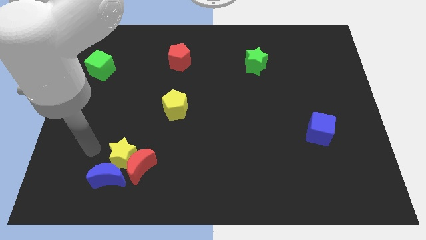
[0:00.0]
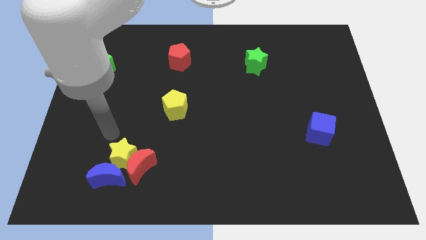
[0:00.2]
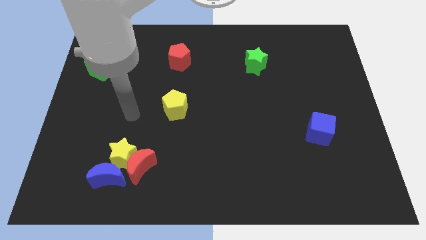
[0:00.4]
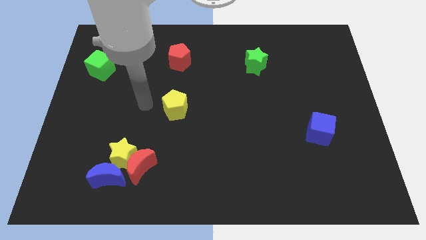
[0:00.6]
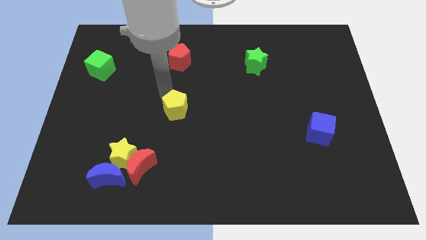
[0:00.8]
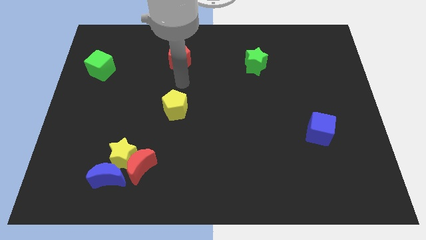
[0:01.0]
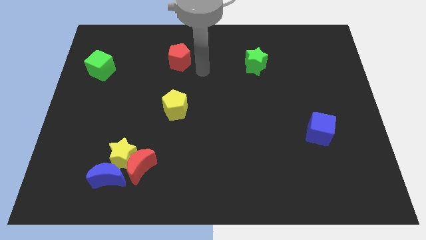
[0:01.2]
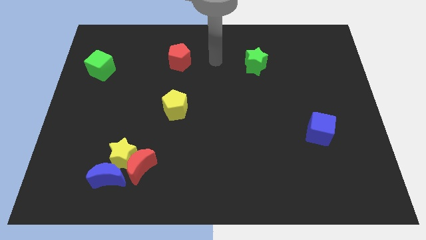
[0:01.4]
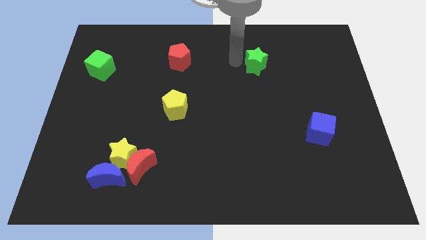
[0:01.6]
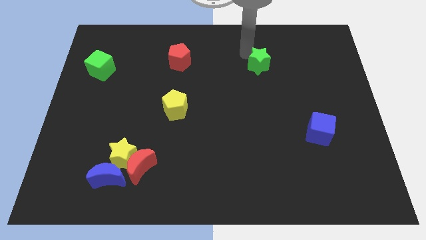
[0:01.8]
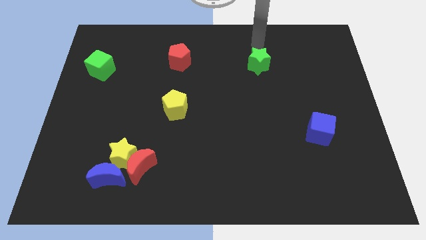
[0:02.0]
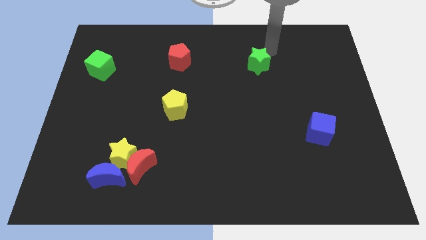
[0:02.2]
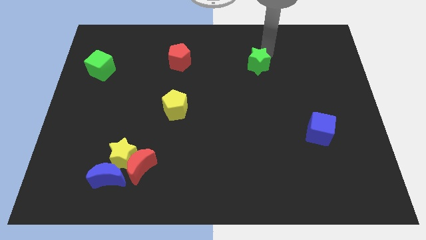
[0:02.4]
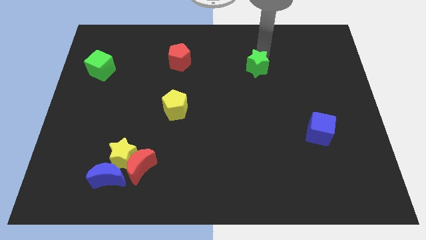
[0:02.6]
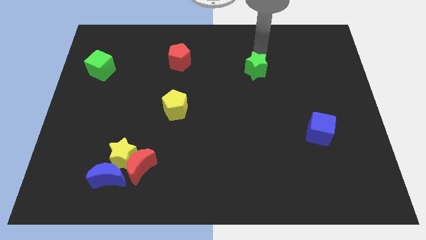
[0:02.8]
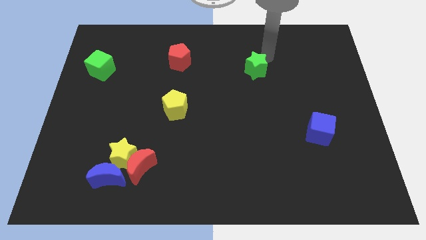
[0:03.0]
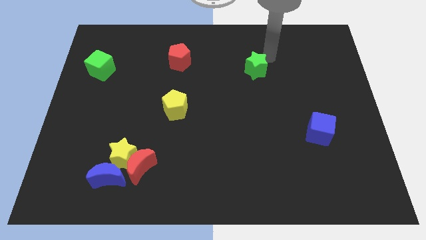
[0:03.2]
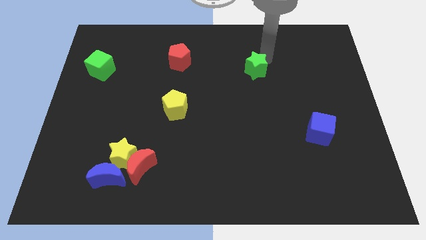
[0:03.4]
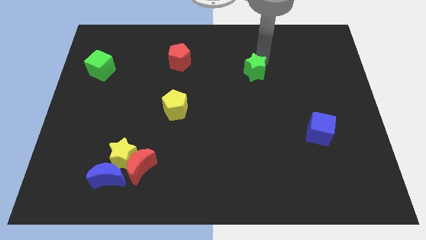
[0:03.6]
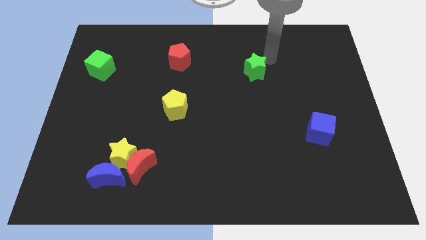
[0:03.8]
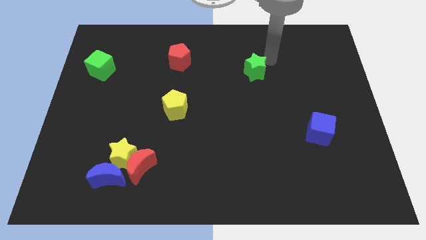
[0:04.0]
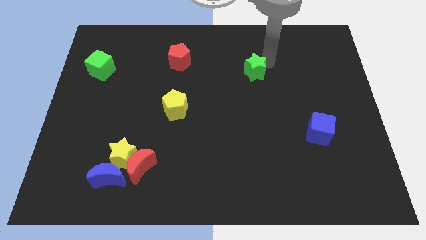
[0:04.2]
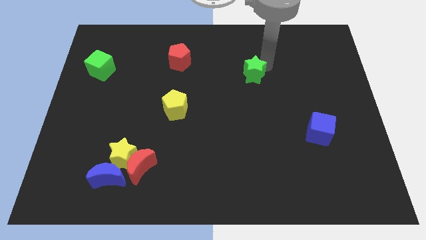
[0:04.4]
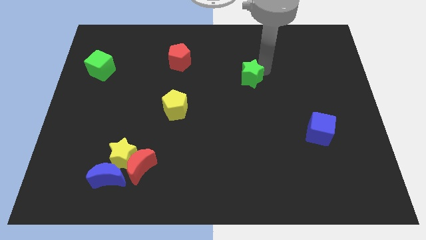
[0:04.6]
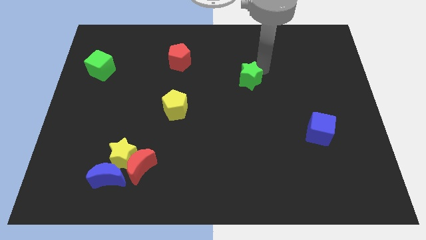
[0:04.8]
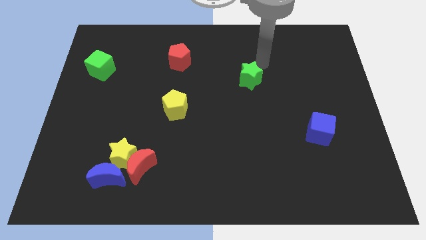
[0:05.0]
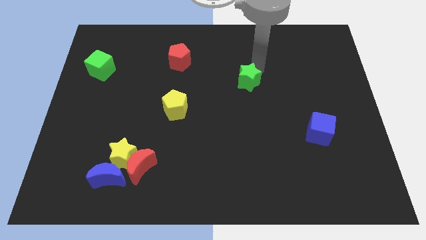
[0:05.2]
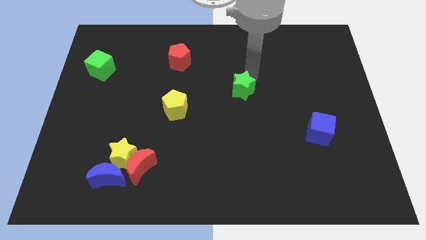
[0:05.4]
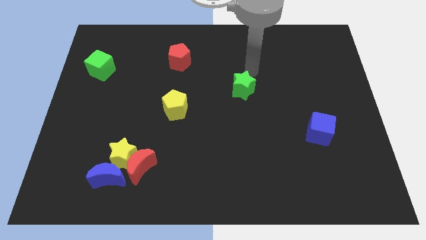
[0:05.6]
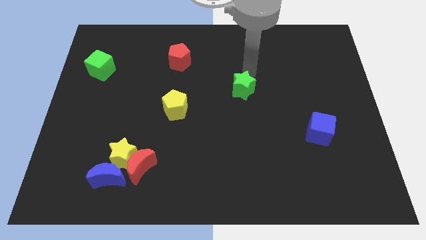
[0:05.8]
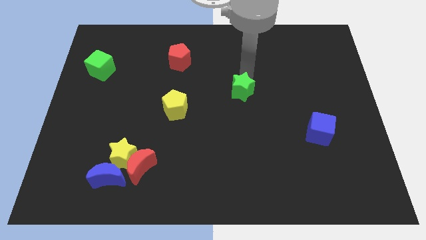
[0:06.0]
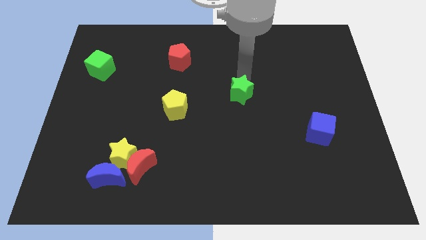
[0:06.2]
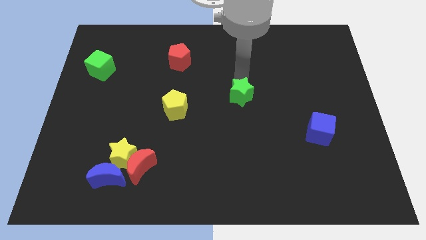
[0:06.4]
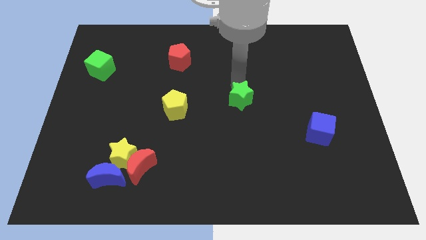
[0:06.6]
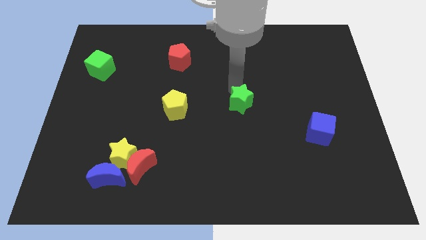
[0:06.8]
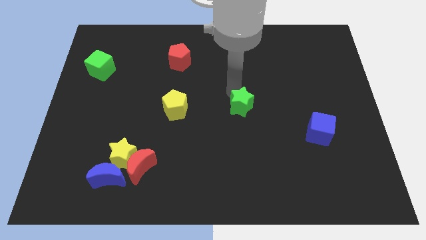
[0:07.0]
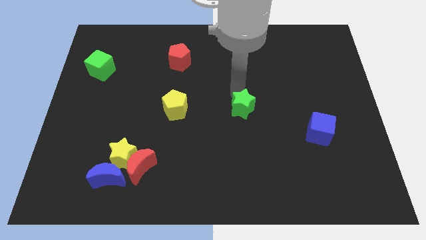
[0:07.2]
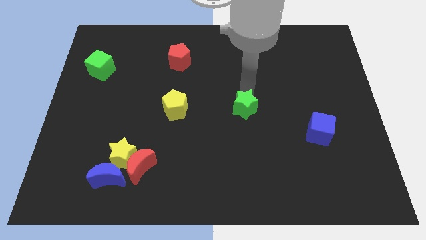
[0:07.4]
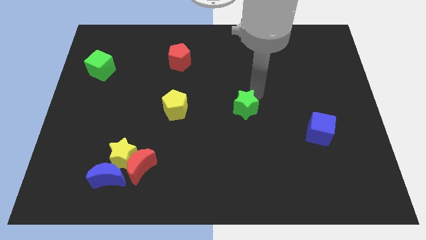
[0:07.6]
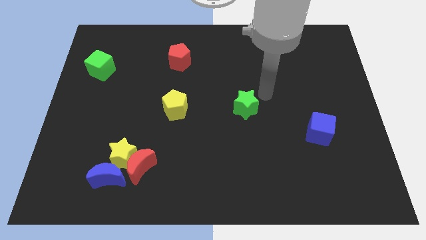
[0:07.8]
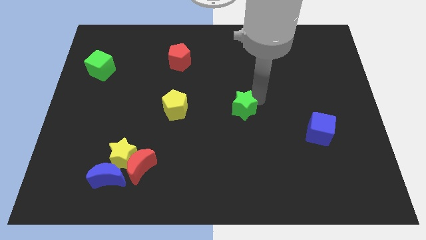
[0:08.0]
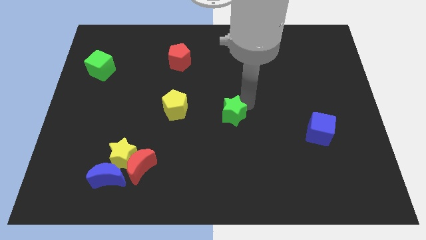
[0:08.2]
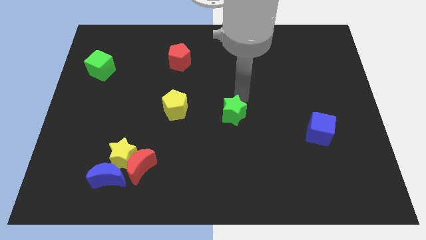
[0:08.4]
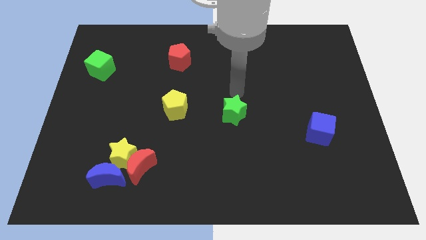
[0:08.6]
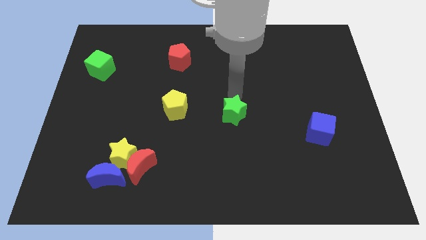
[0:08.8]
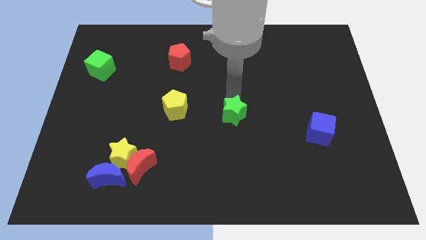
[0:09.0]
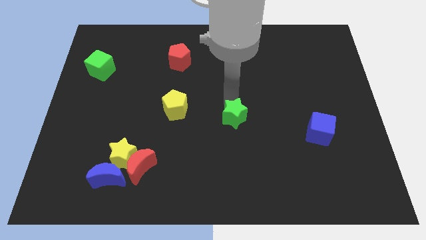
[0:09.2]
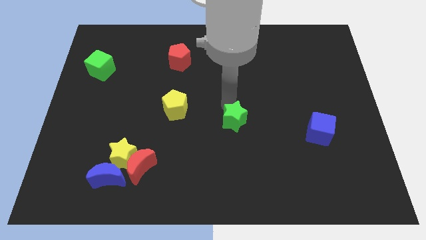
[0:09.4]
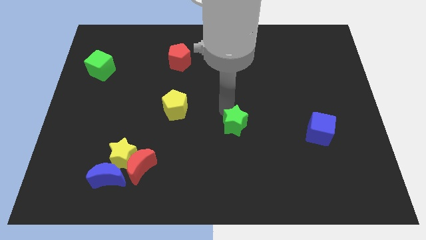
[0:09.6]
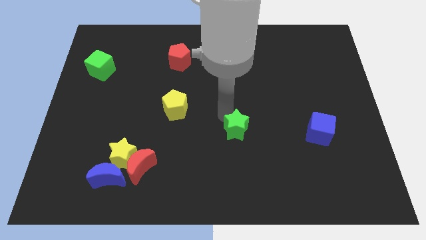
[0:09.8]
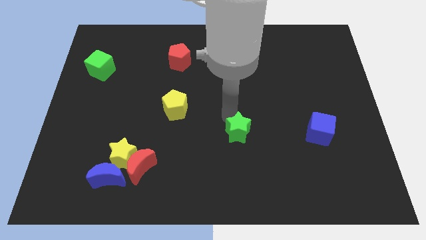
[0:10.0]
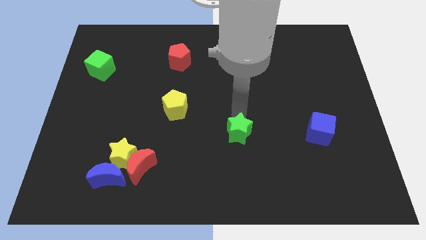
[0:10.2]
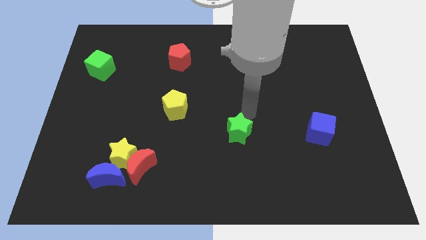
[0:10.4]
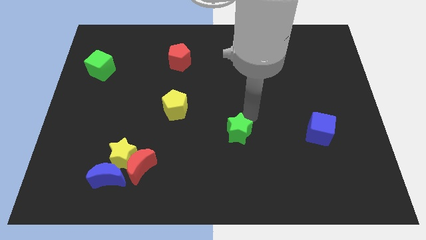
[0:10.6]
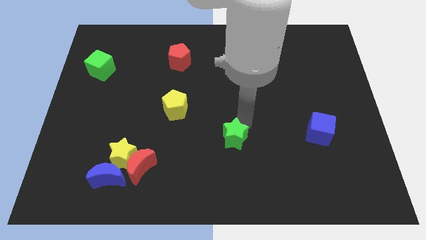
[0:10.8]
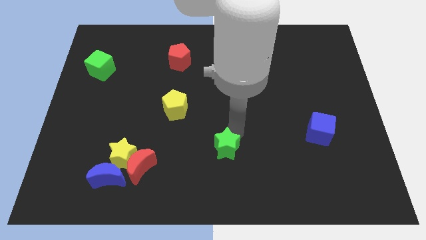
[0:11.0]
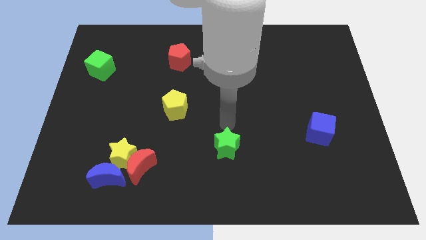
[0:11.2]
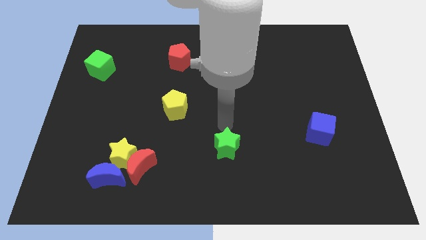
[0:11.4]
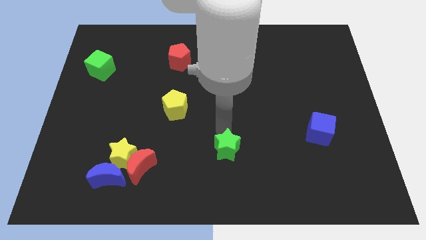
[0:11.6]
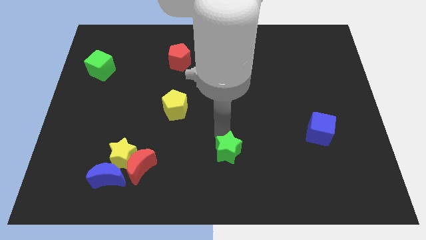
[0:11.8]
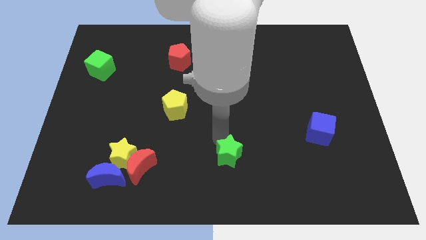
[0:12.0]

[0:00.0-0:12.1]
put the green star to the bottom
